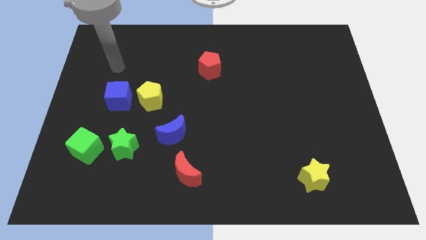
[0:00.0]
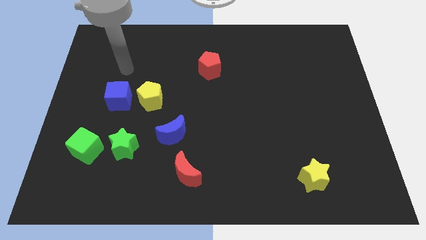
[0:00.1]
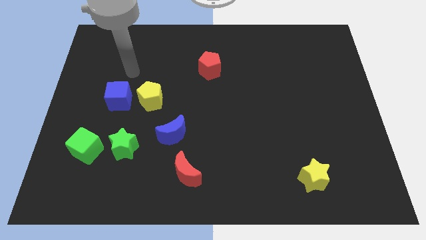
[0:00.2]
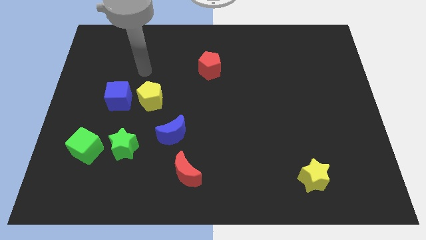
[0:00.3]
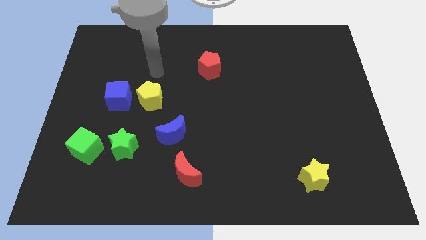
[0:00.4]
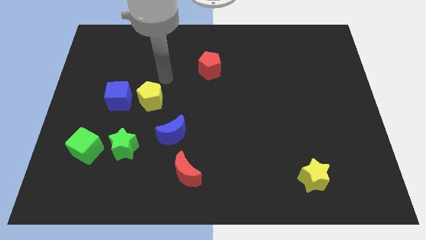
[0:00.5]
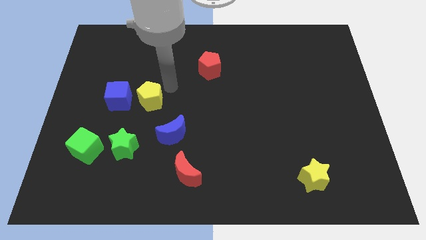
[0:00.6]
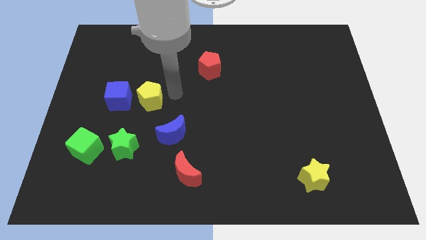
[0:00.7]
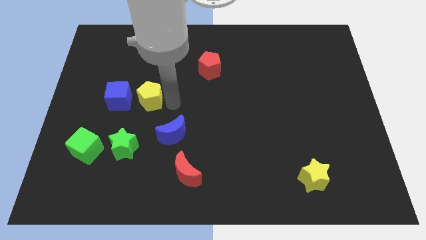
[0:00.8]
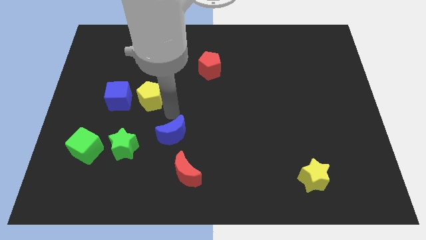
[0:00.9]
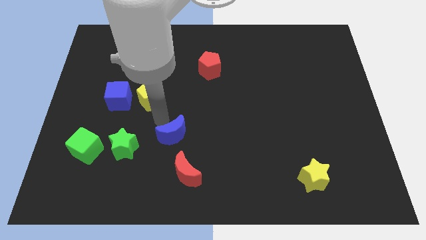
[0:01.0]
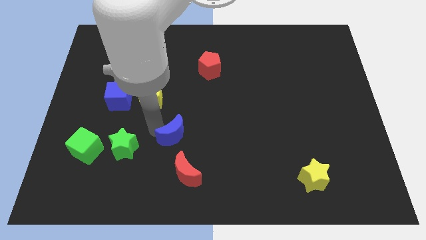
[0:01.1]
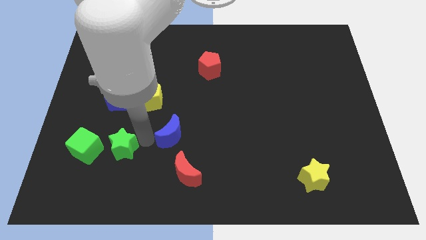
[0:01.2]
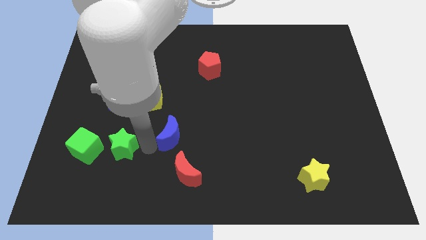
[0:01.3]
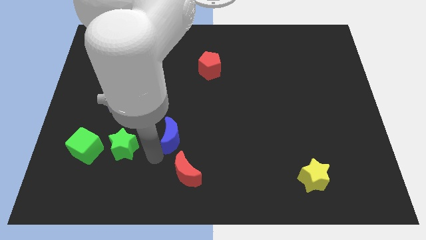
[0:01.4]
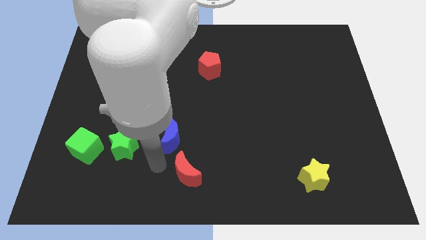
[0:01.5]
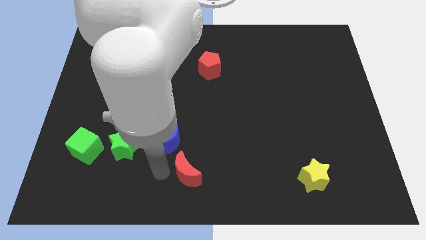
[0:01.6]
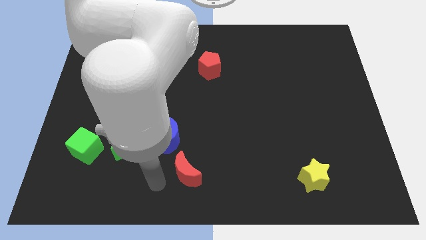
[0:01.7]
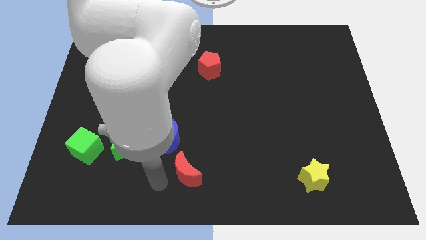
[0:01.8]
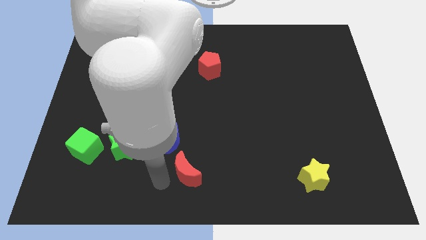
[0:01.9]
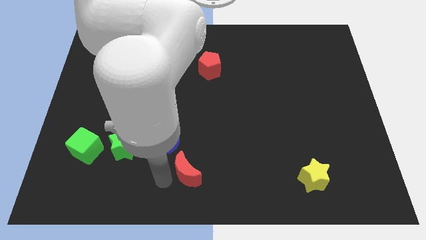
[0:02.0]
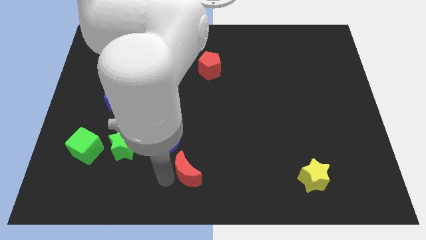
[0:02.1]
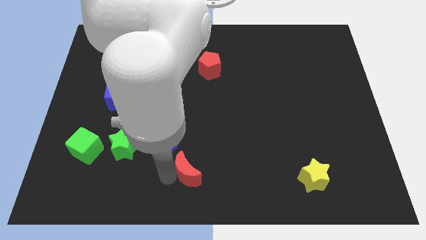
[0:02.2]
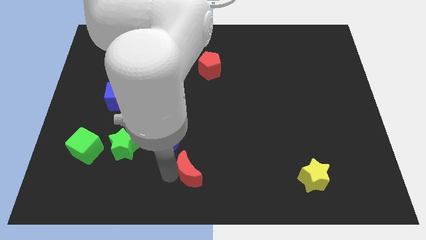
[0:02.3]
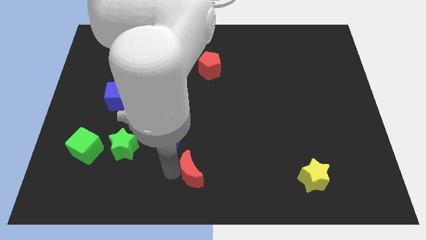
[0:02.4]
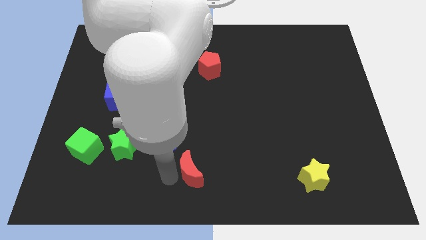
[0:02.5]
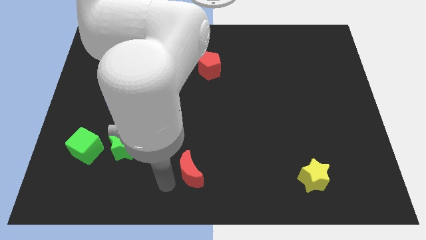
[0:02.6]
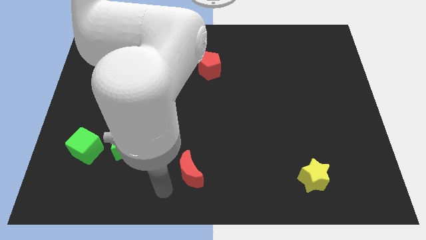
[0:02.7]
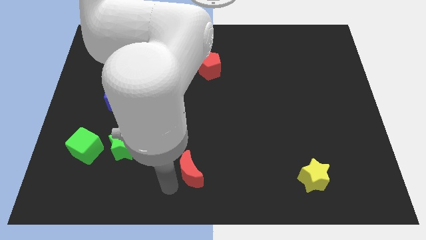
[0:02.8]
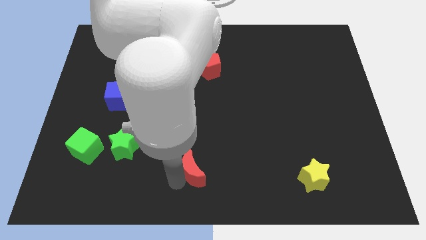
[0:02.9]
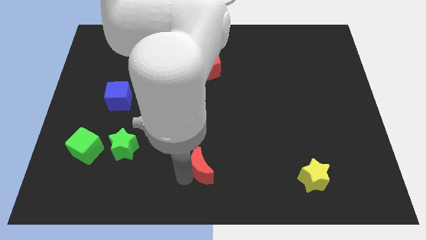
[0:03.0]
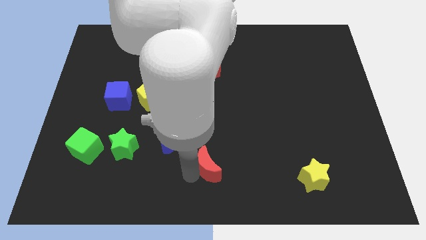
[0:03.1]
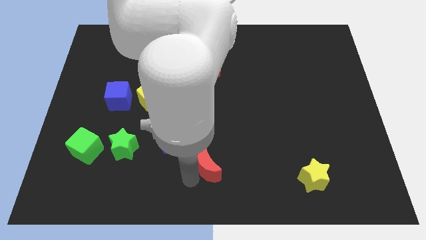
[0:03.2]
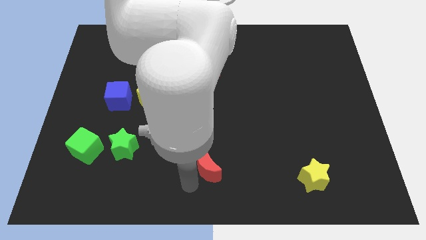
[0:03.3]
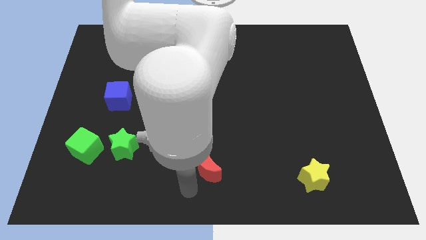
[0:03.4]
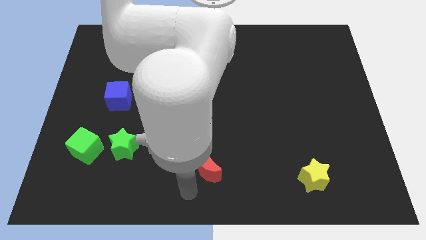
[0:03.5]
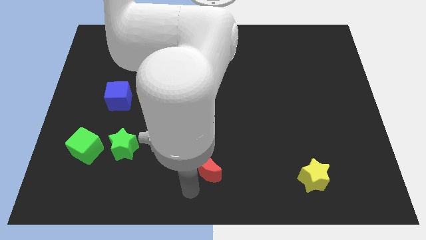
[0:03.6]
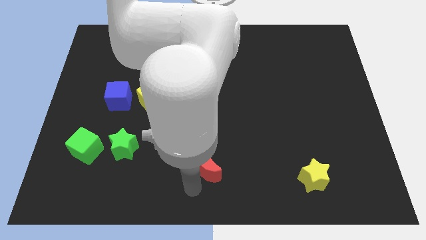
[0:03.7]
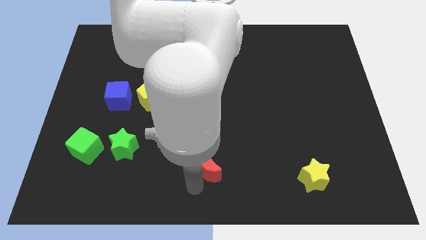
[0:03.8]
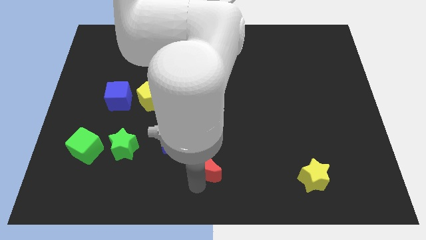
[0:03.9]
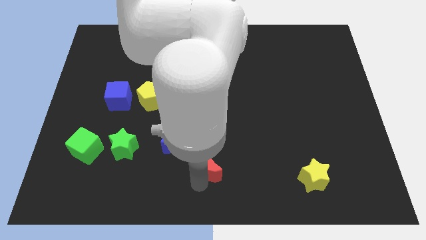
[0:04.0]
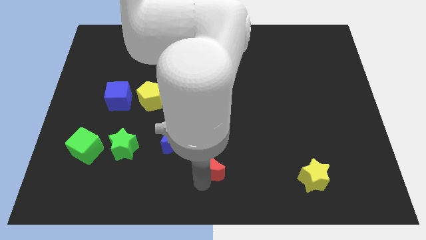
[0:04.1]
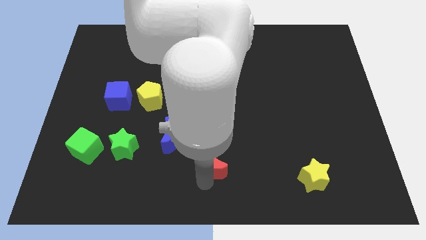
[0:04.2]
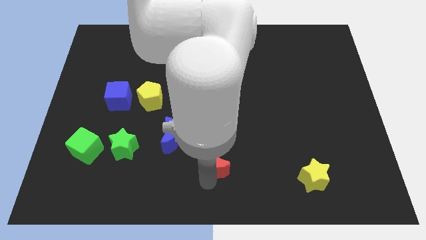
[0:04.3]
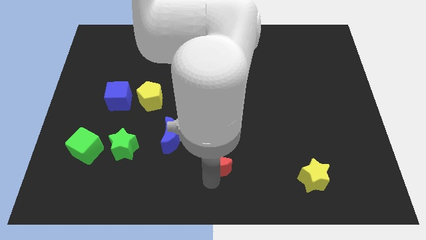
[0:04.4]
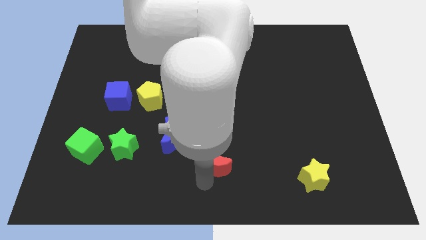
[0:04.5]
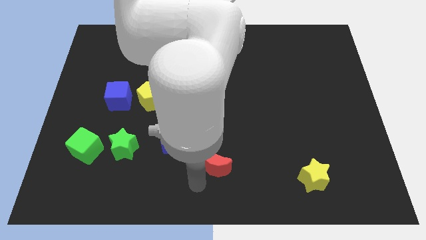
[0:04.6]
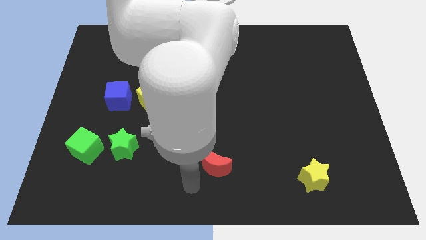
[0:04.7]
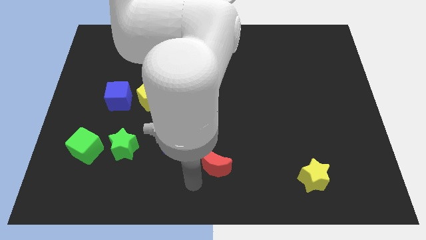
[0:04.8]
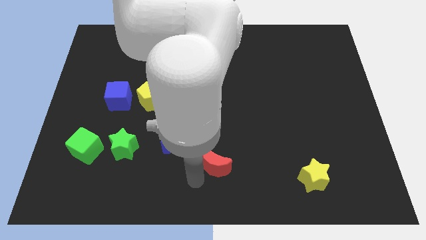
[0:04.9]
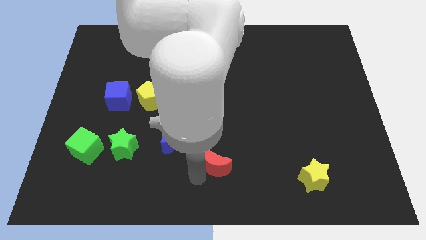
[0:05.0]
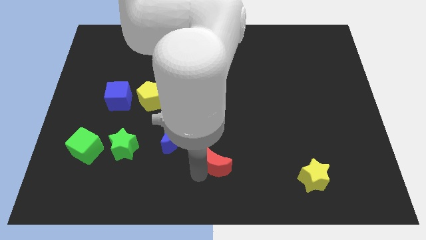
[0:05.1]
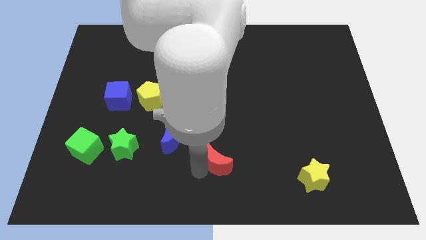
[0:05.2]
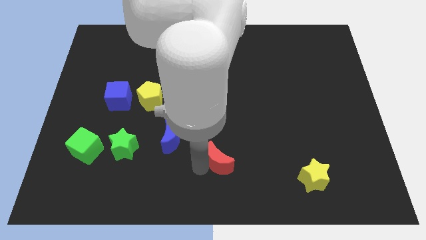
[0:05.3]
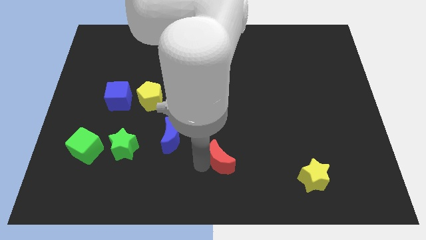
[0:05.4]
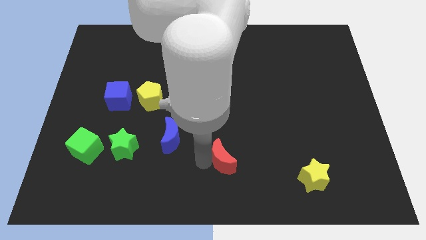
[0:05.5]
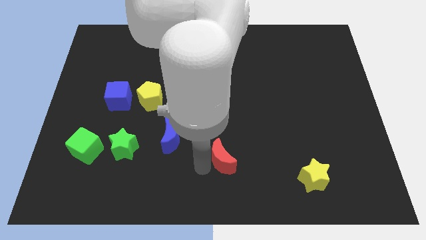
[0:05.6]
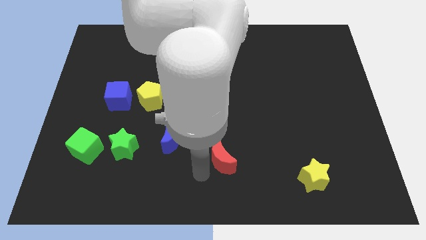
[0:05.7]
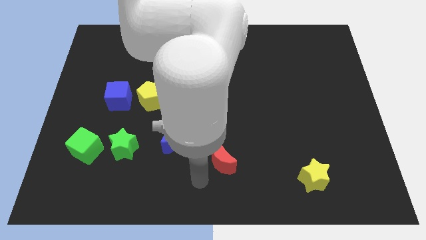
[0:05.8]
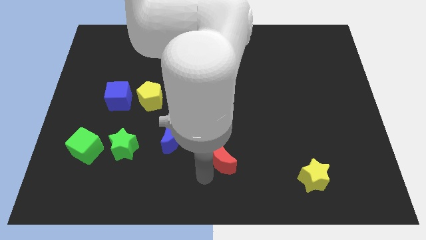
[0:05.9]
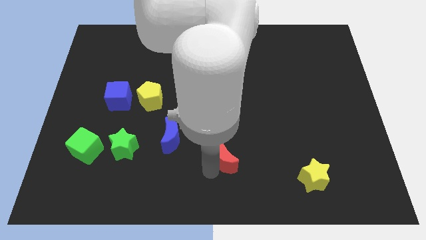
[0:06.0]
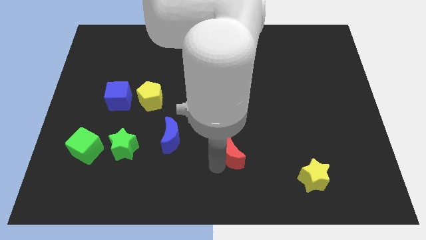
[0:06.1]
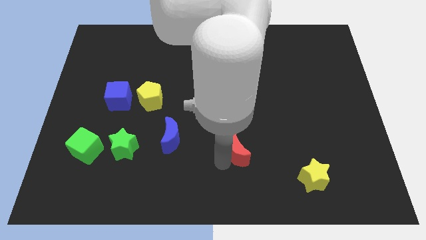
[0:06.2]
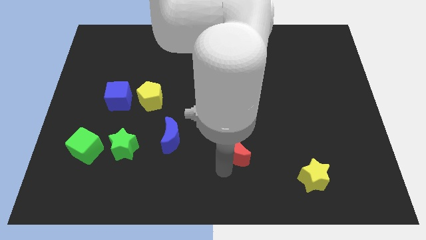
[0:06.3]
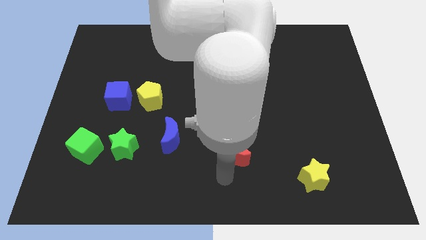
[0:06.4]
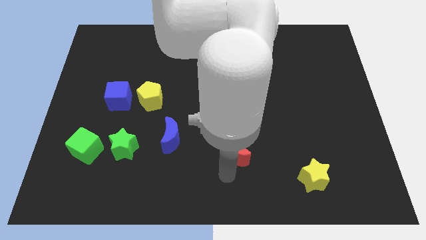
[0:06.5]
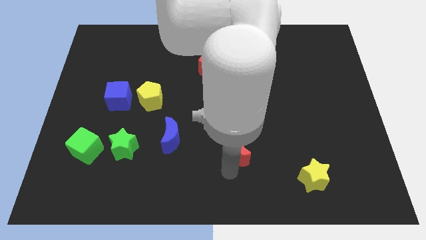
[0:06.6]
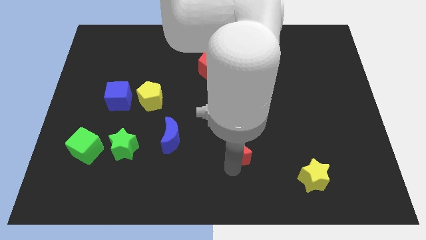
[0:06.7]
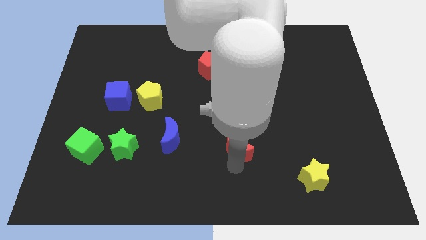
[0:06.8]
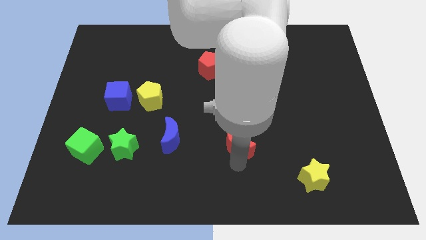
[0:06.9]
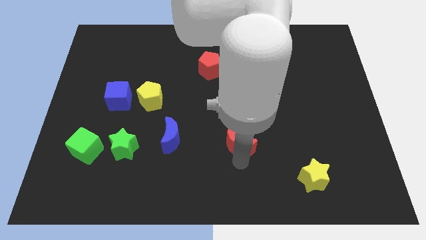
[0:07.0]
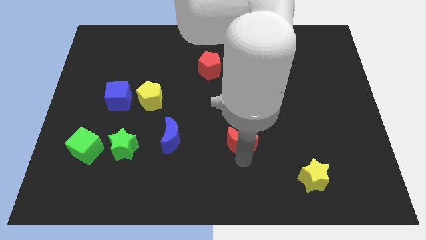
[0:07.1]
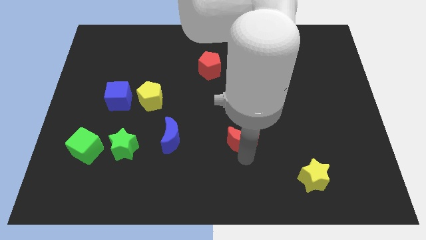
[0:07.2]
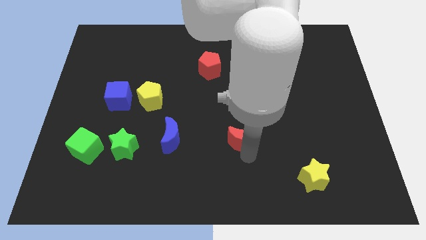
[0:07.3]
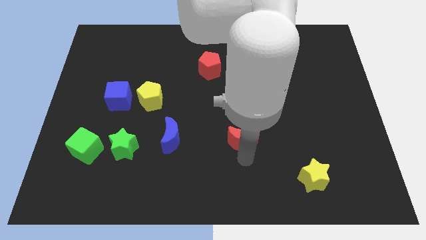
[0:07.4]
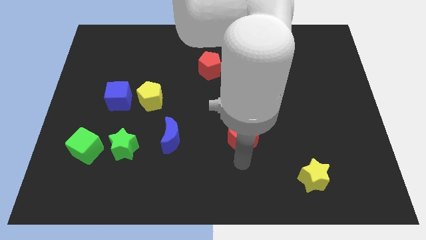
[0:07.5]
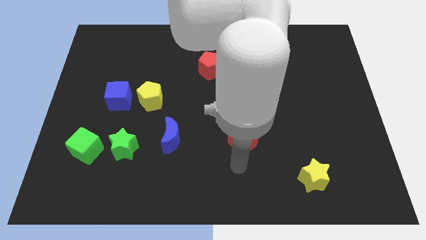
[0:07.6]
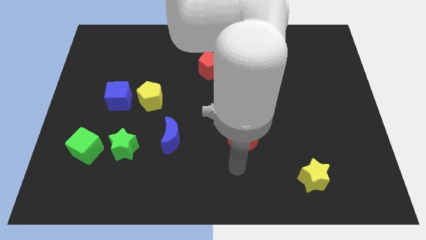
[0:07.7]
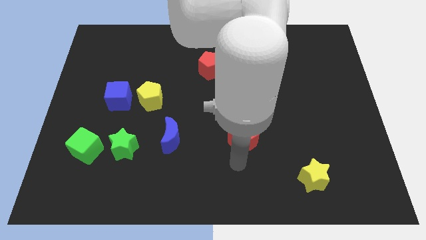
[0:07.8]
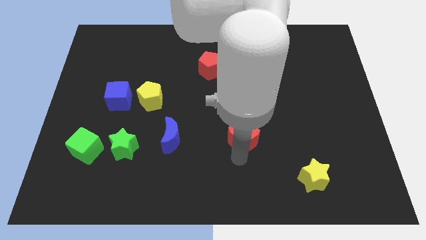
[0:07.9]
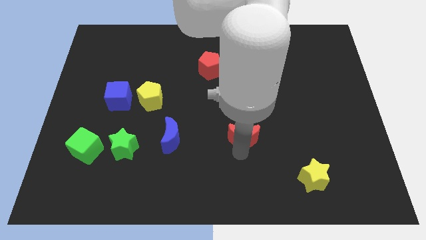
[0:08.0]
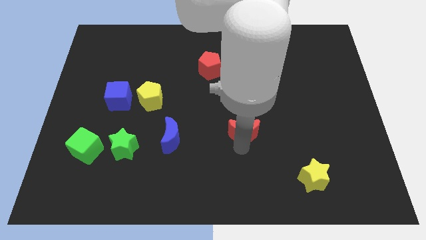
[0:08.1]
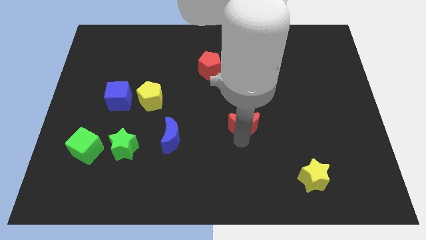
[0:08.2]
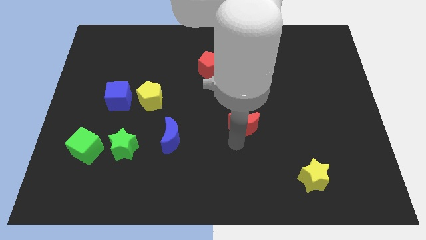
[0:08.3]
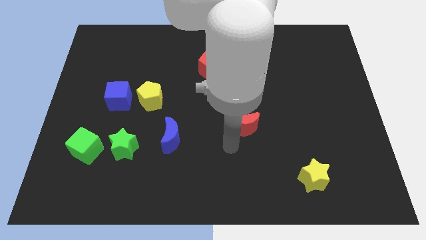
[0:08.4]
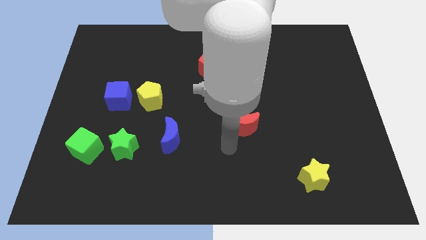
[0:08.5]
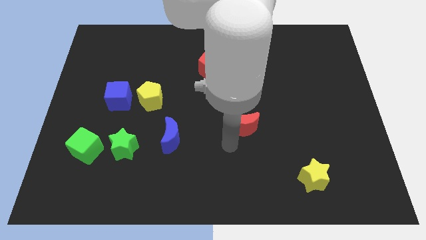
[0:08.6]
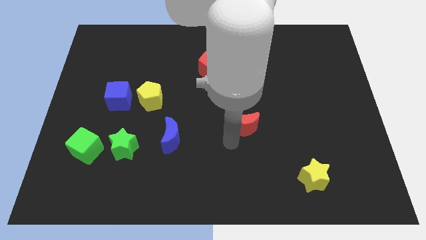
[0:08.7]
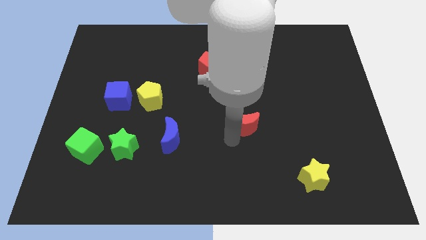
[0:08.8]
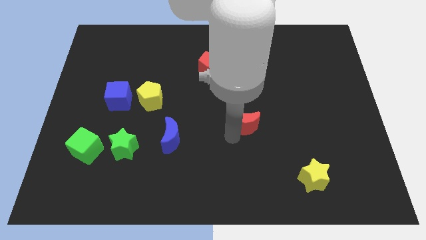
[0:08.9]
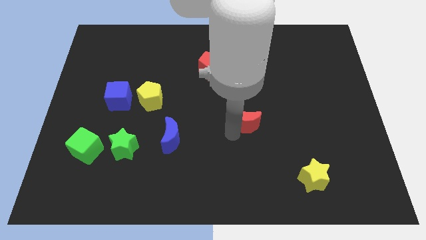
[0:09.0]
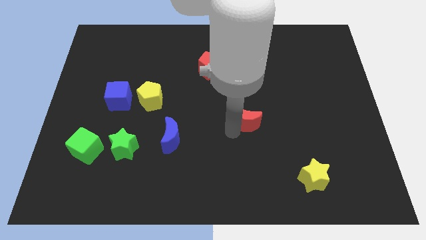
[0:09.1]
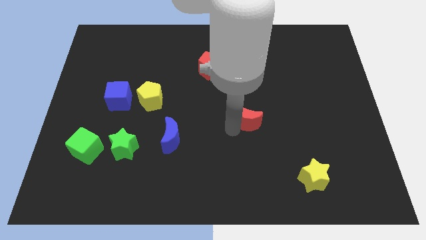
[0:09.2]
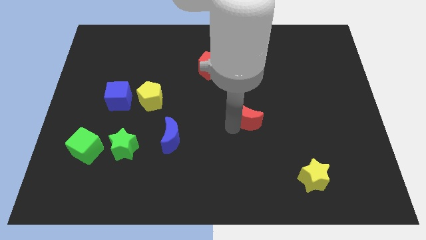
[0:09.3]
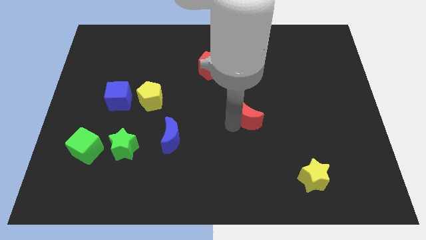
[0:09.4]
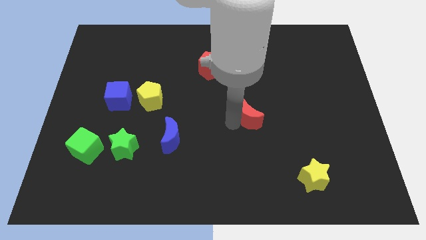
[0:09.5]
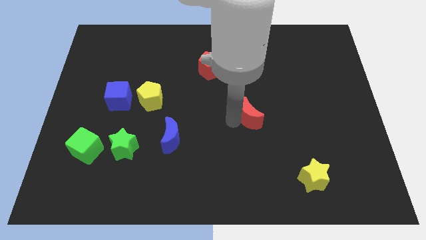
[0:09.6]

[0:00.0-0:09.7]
push the red moon upwards and right
